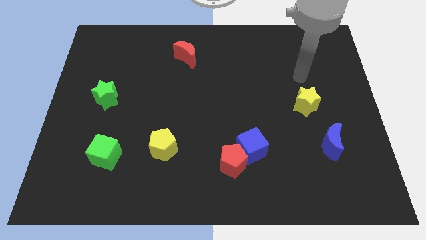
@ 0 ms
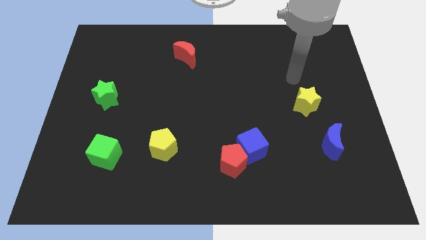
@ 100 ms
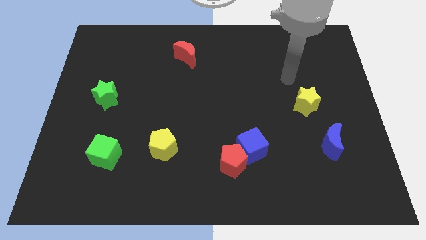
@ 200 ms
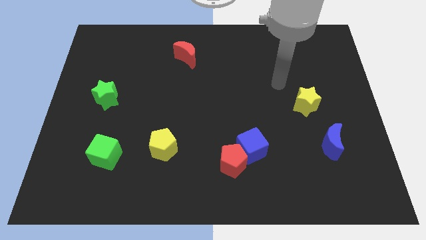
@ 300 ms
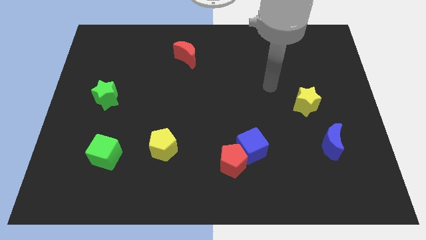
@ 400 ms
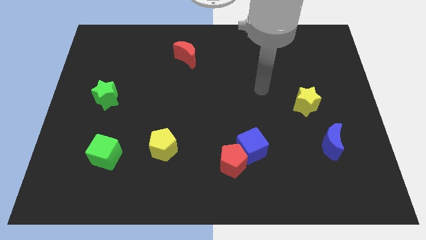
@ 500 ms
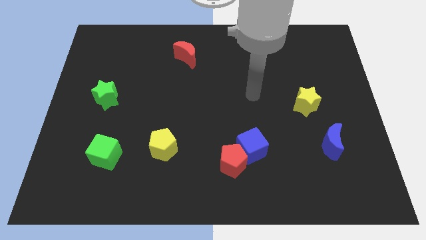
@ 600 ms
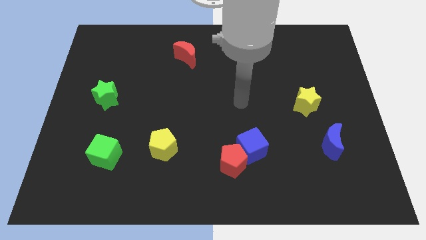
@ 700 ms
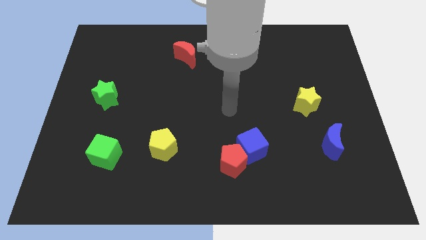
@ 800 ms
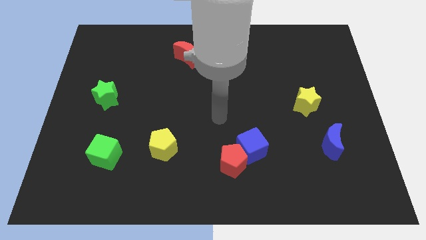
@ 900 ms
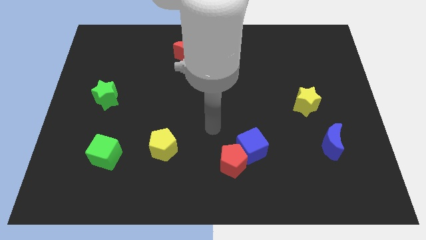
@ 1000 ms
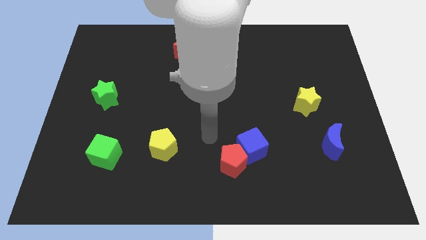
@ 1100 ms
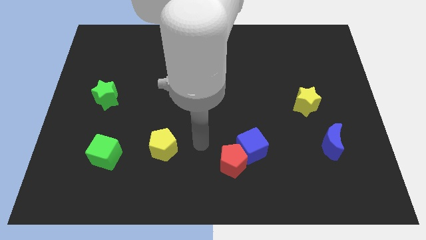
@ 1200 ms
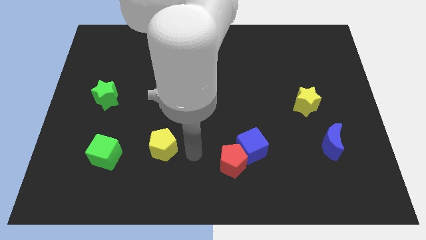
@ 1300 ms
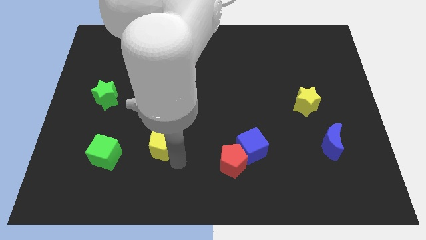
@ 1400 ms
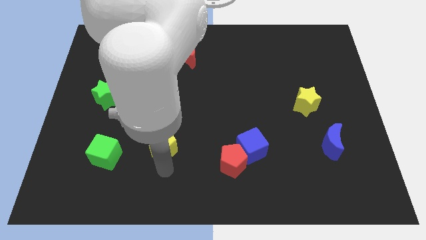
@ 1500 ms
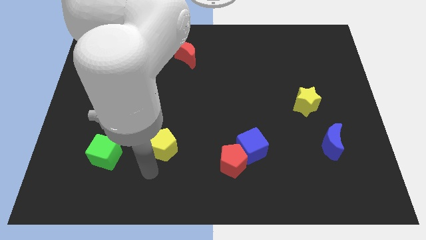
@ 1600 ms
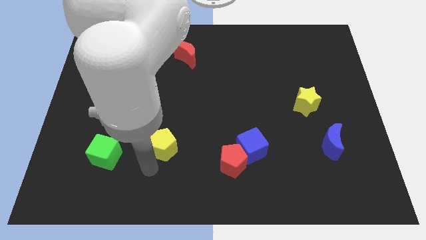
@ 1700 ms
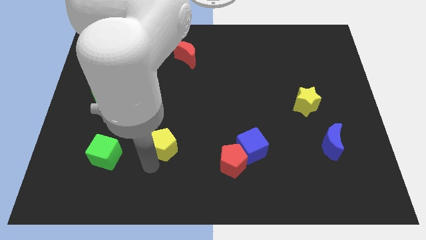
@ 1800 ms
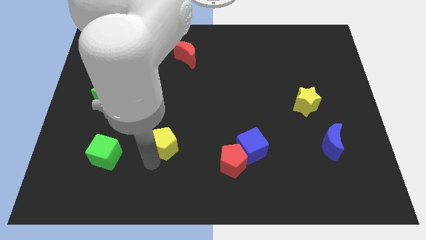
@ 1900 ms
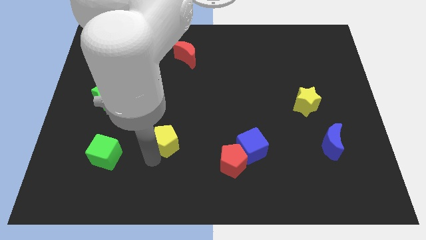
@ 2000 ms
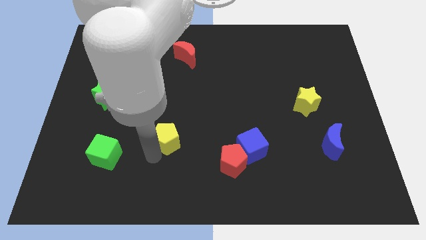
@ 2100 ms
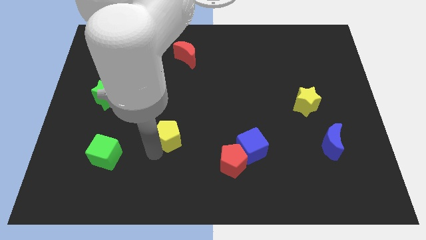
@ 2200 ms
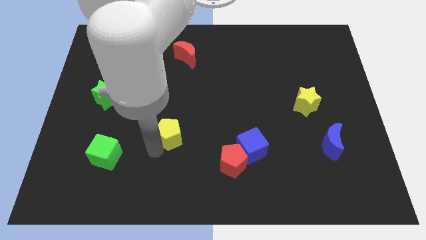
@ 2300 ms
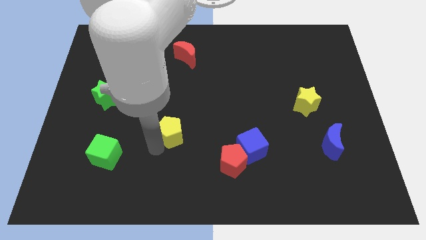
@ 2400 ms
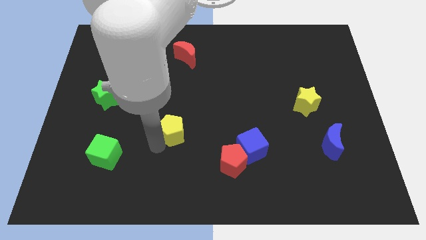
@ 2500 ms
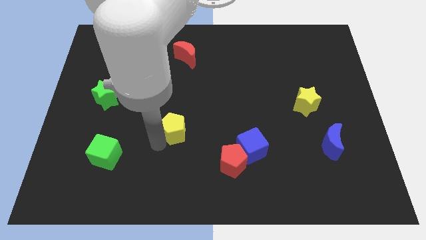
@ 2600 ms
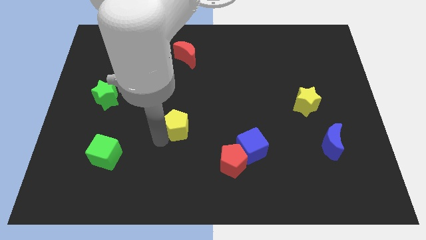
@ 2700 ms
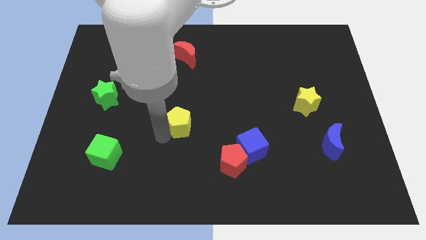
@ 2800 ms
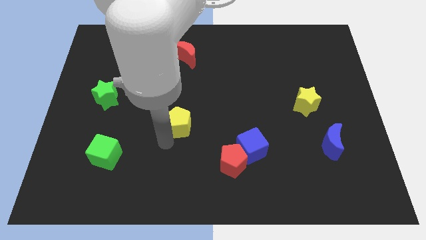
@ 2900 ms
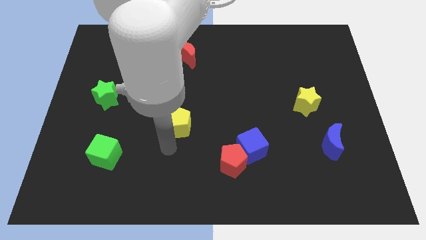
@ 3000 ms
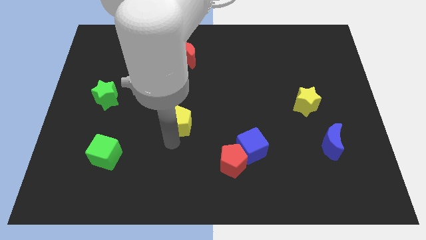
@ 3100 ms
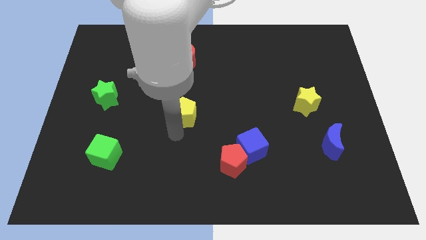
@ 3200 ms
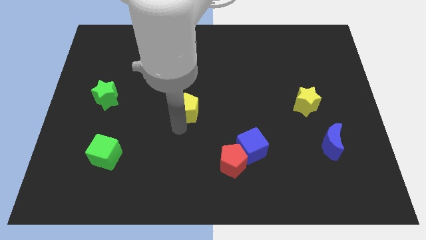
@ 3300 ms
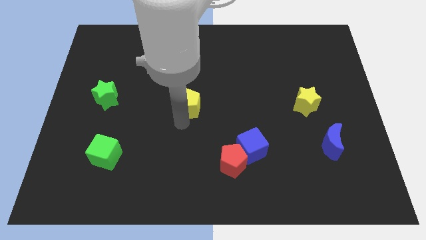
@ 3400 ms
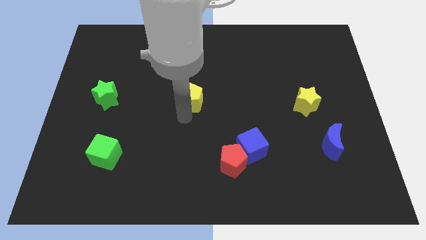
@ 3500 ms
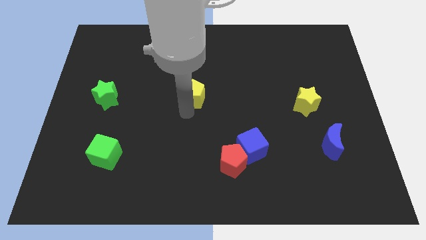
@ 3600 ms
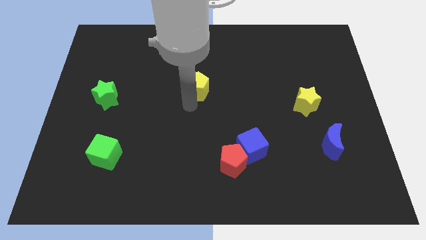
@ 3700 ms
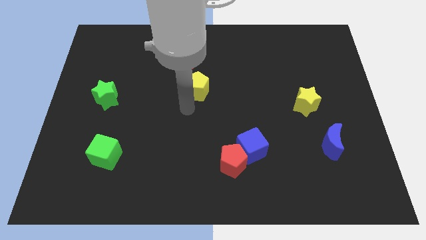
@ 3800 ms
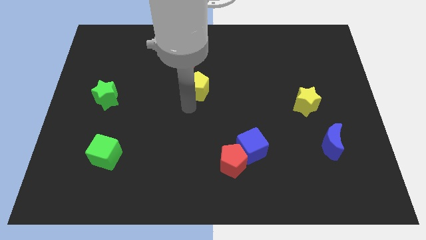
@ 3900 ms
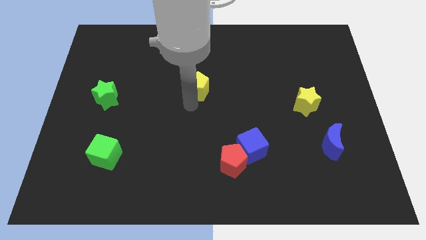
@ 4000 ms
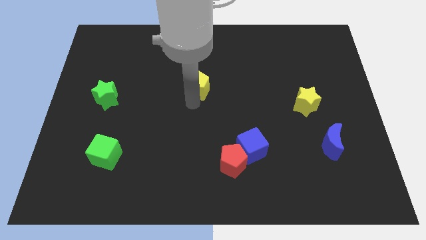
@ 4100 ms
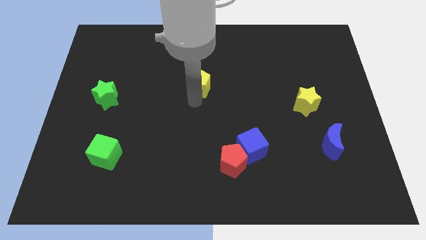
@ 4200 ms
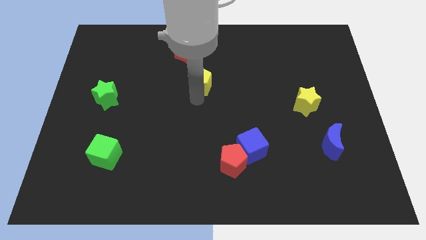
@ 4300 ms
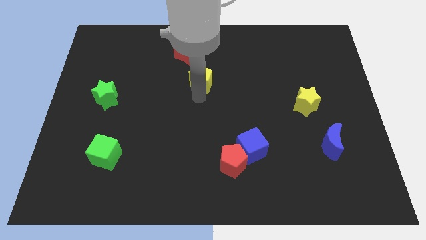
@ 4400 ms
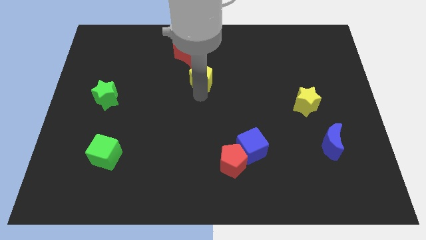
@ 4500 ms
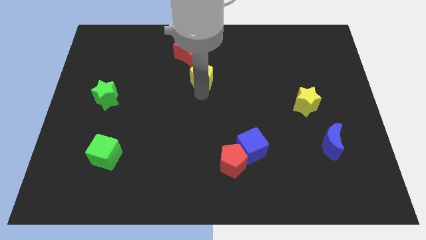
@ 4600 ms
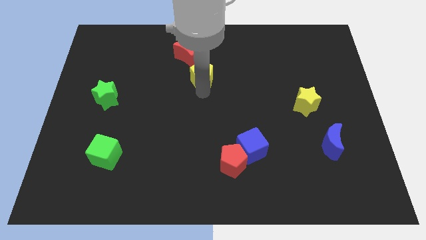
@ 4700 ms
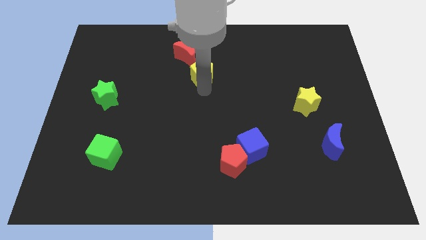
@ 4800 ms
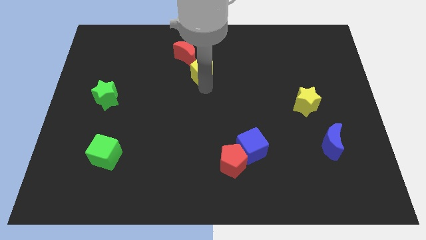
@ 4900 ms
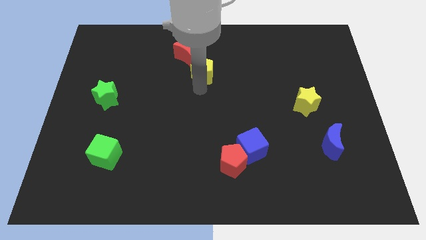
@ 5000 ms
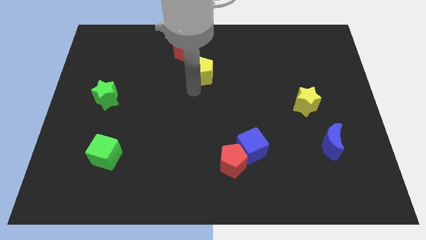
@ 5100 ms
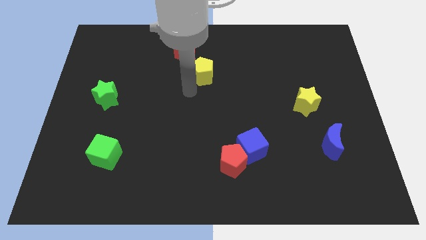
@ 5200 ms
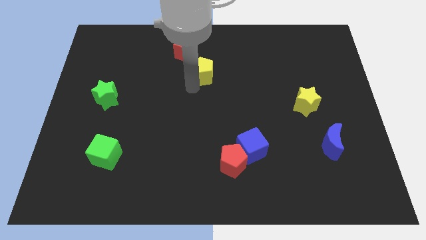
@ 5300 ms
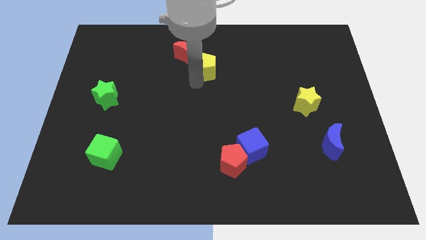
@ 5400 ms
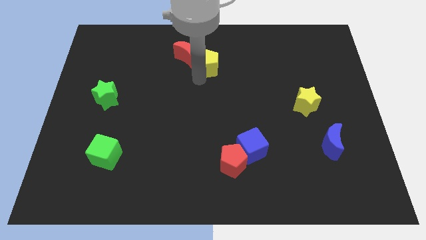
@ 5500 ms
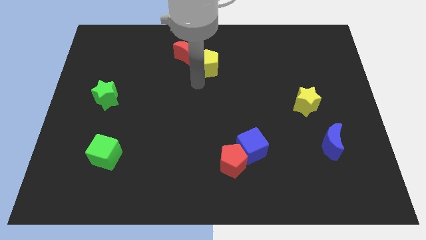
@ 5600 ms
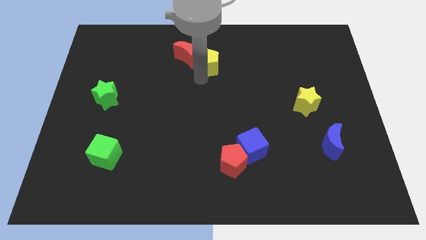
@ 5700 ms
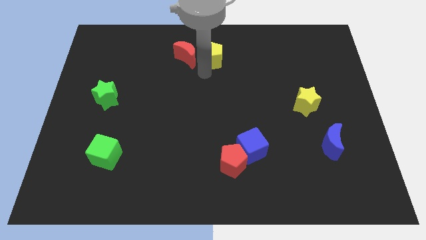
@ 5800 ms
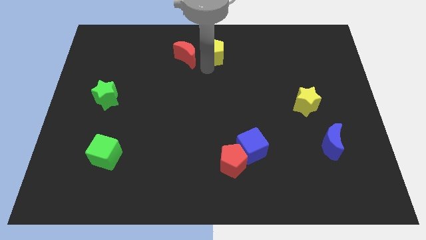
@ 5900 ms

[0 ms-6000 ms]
put the yellow pentagon to the top

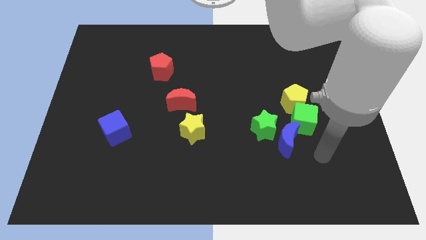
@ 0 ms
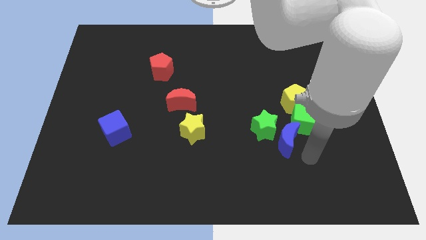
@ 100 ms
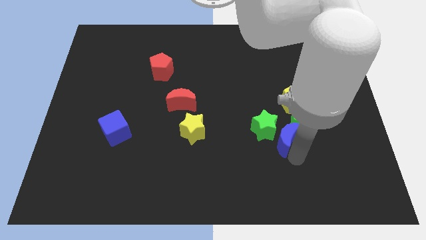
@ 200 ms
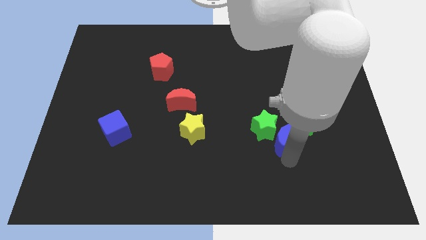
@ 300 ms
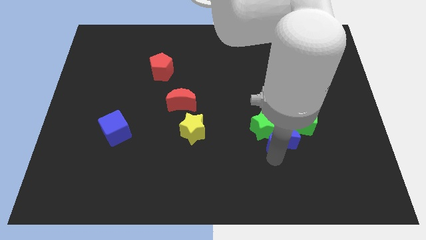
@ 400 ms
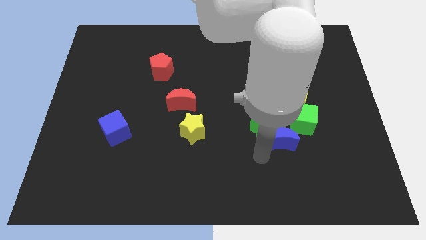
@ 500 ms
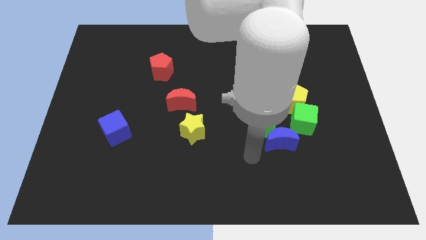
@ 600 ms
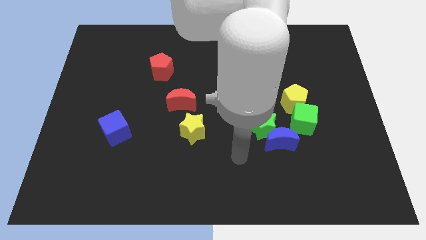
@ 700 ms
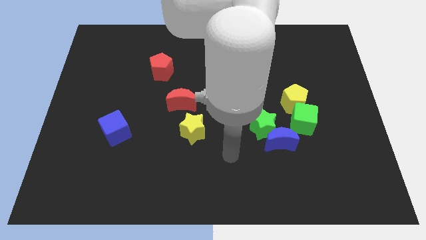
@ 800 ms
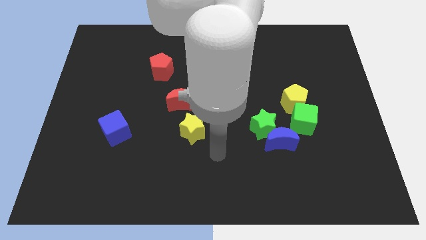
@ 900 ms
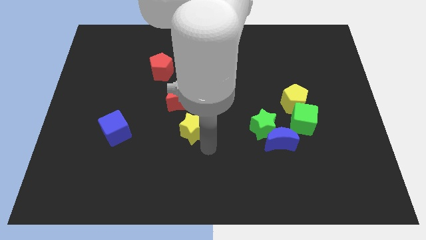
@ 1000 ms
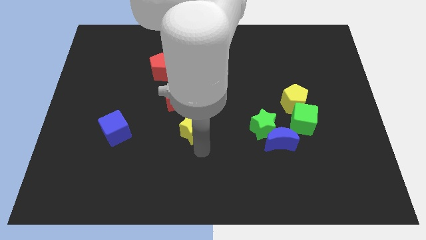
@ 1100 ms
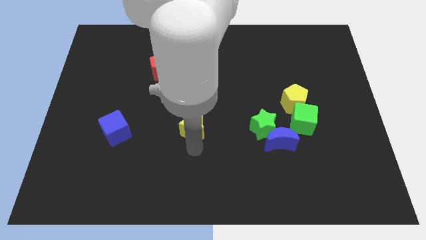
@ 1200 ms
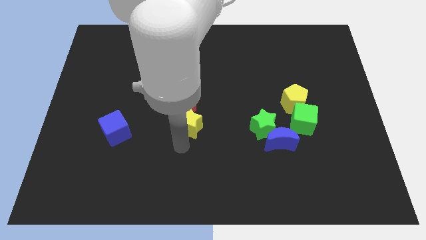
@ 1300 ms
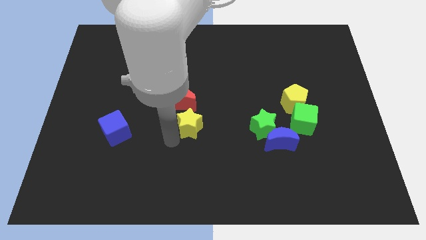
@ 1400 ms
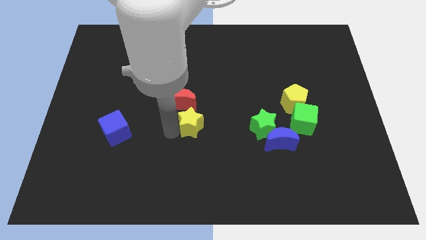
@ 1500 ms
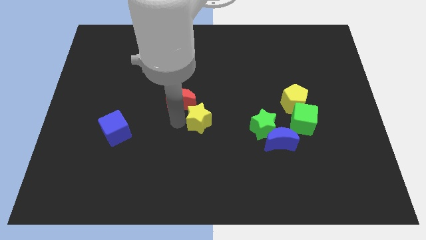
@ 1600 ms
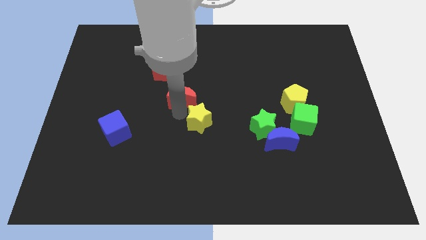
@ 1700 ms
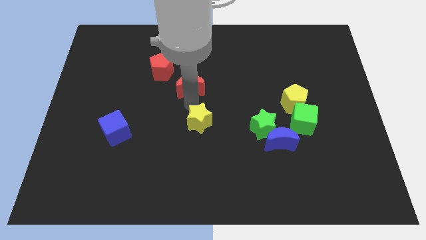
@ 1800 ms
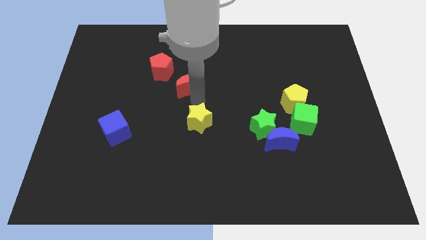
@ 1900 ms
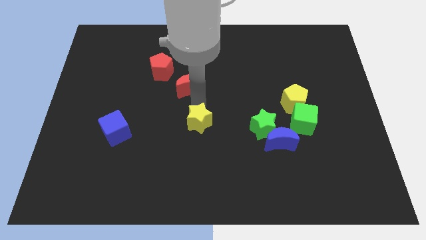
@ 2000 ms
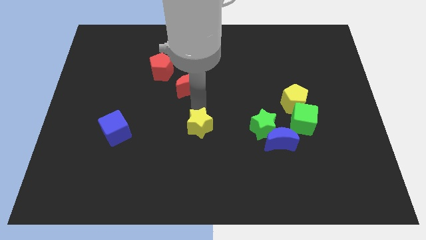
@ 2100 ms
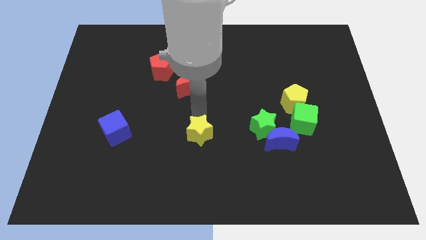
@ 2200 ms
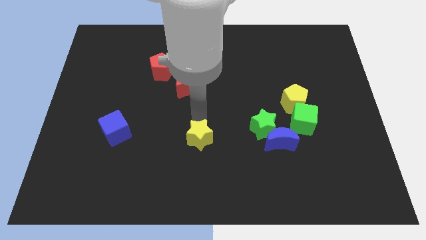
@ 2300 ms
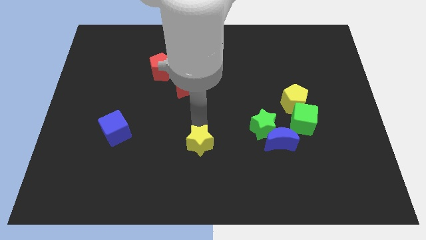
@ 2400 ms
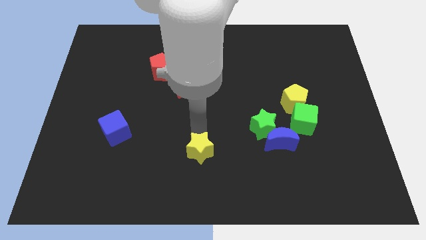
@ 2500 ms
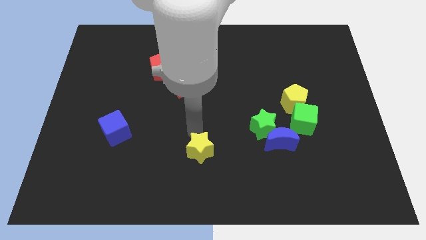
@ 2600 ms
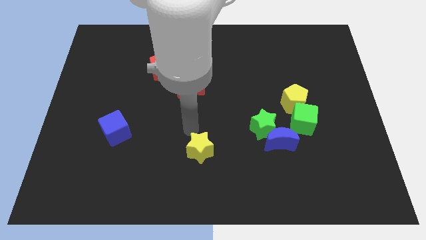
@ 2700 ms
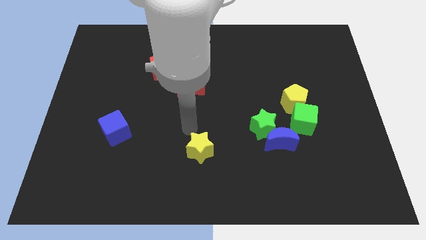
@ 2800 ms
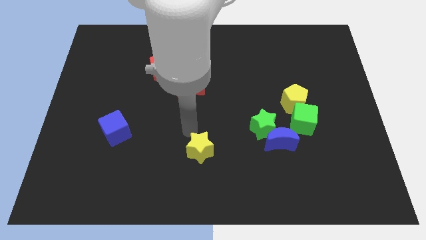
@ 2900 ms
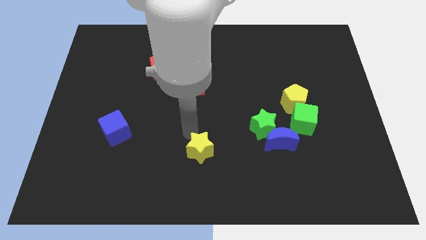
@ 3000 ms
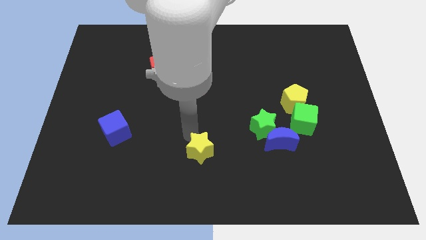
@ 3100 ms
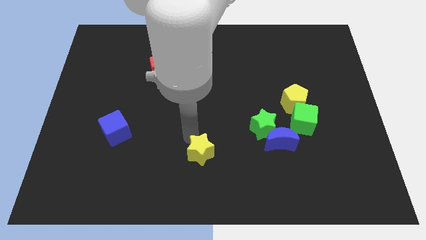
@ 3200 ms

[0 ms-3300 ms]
move the yellow star to the bottom
